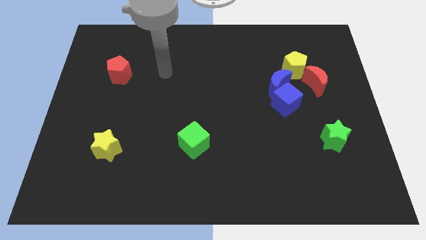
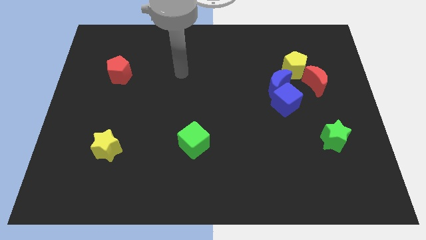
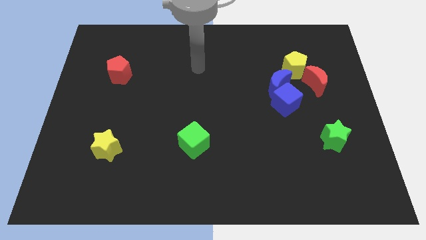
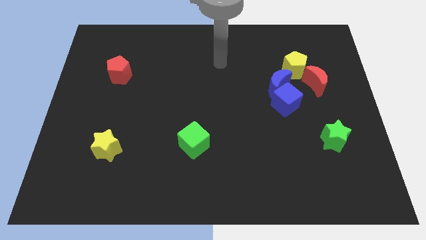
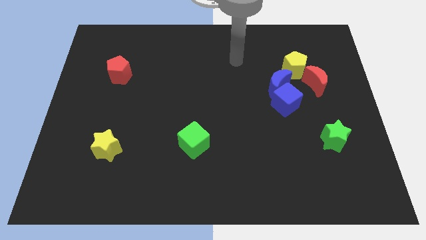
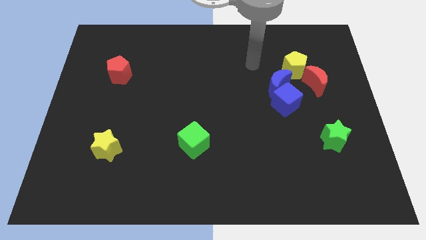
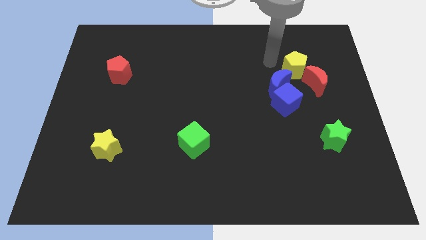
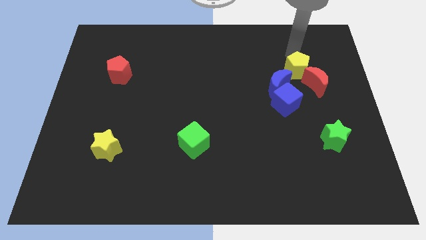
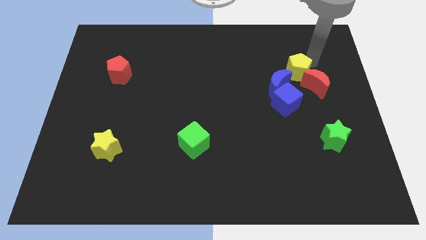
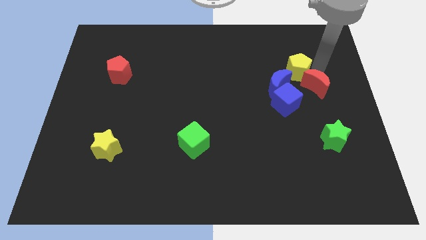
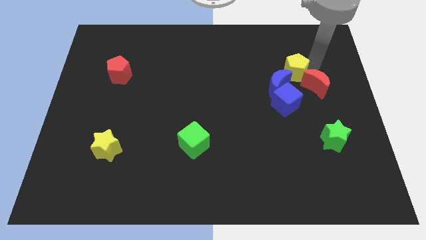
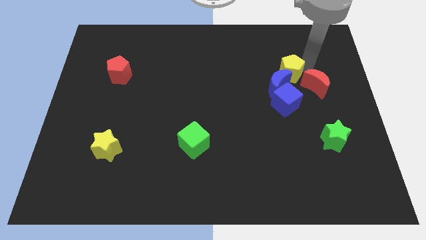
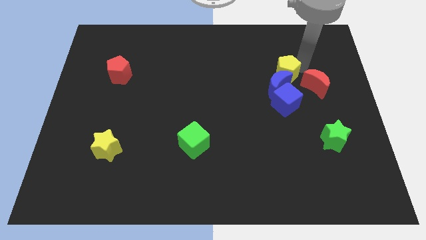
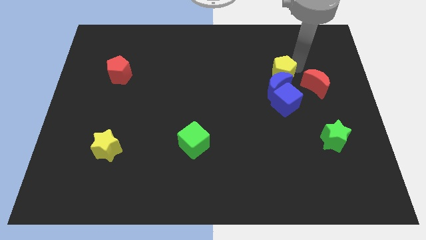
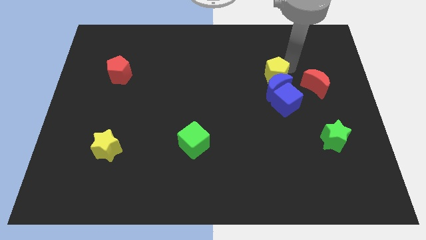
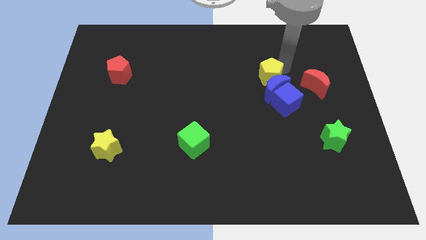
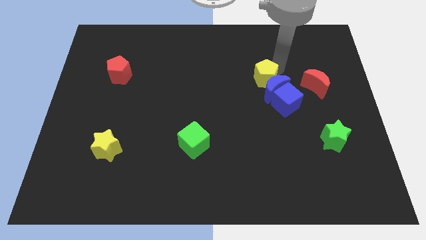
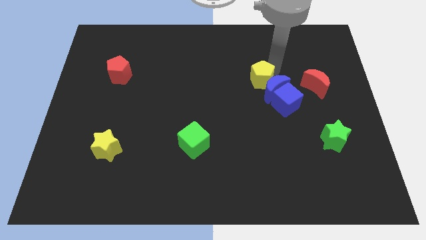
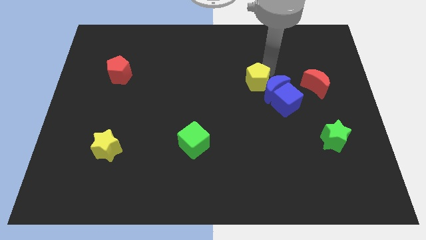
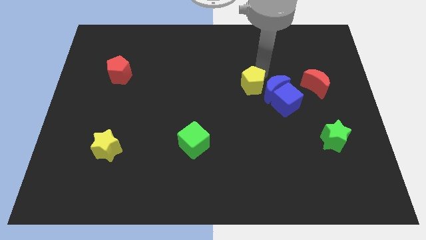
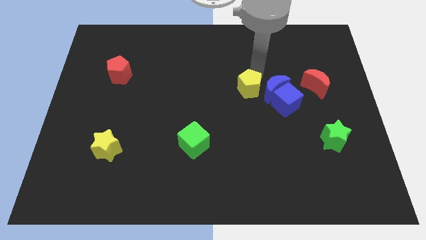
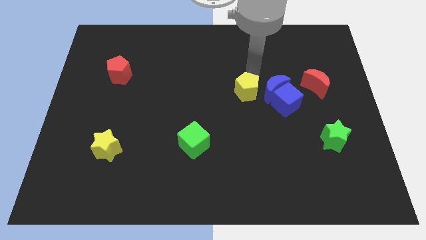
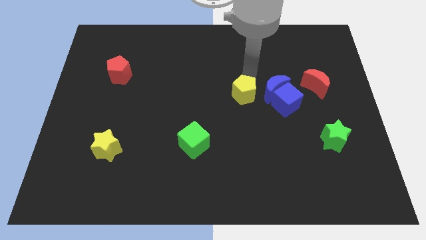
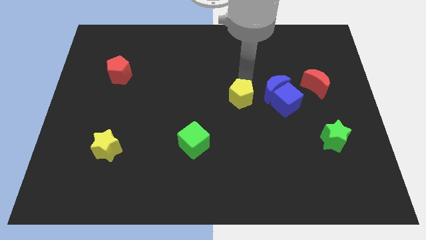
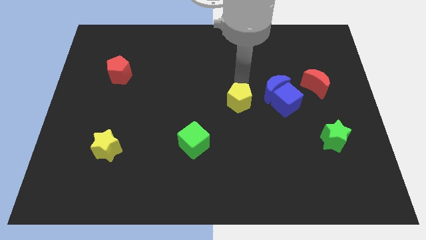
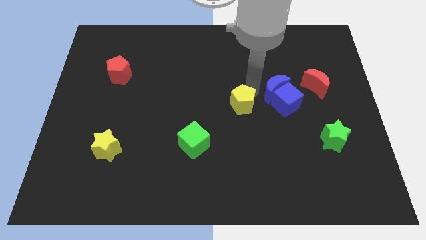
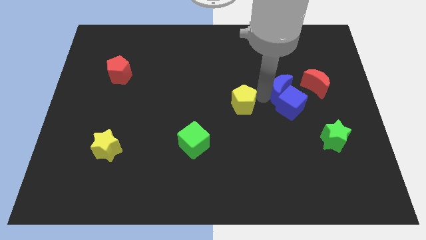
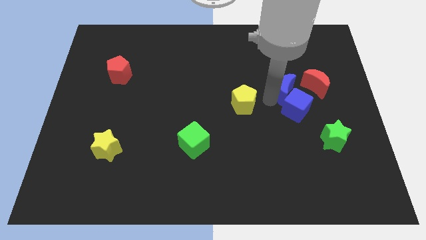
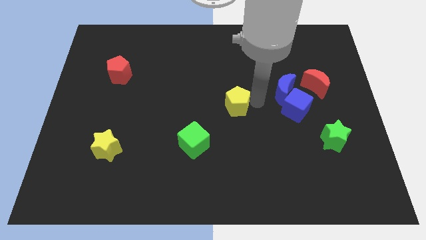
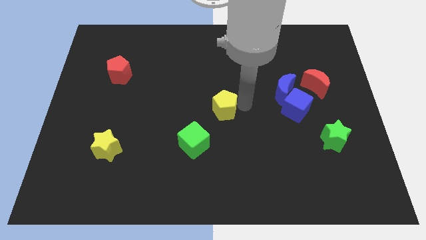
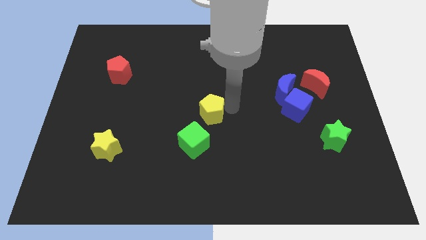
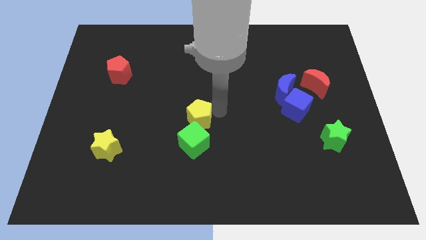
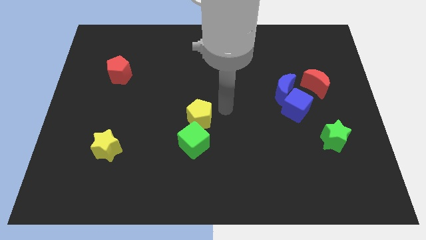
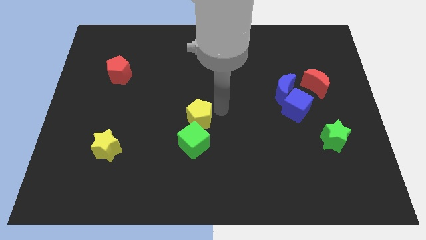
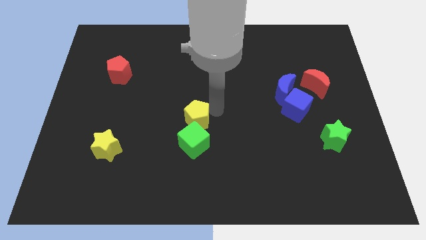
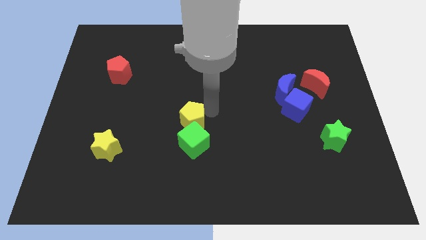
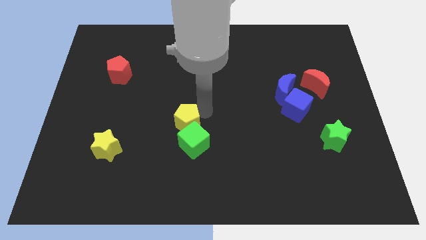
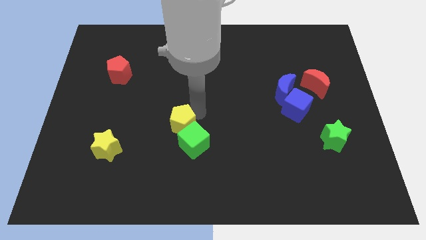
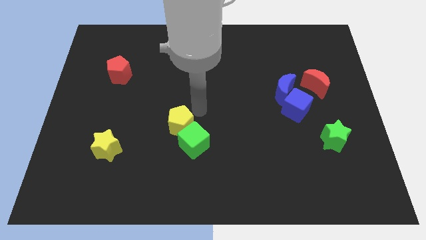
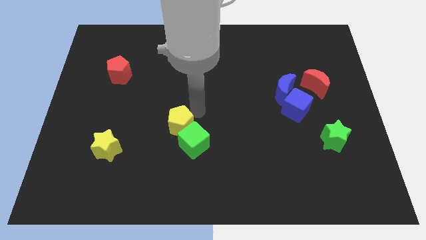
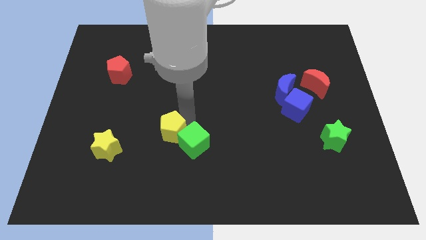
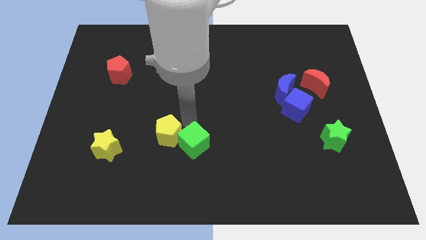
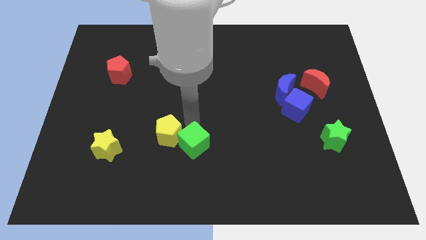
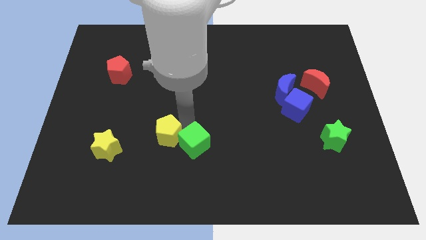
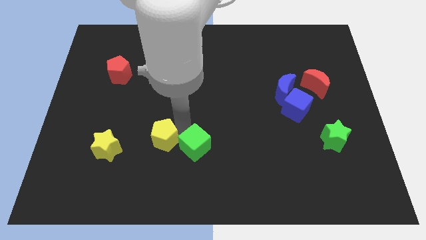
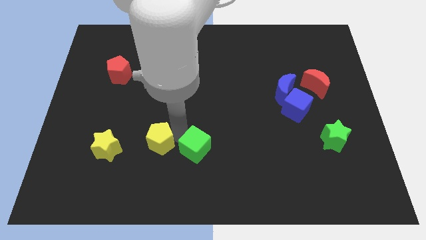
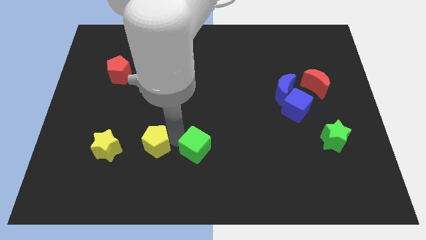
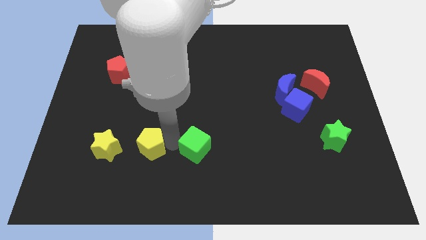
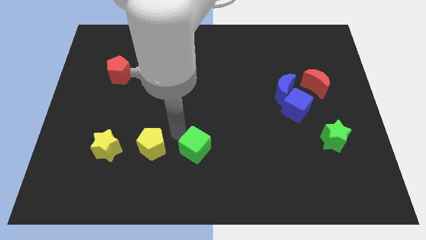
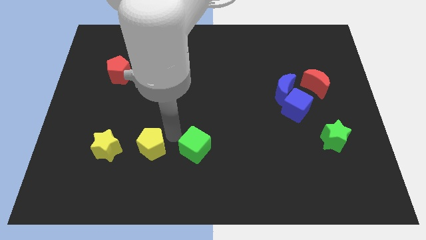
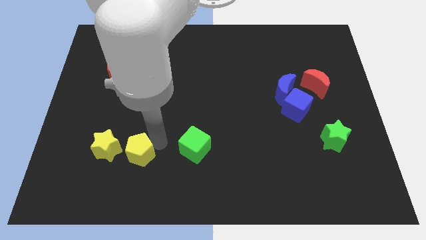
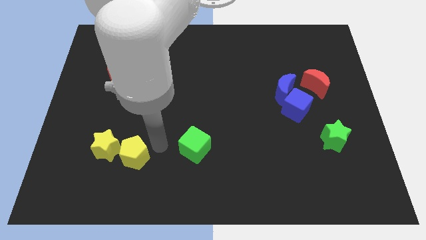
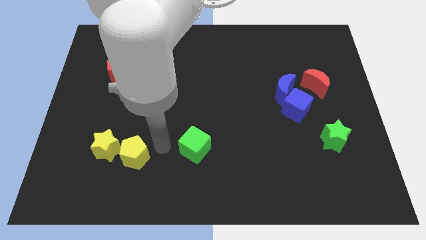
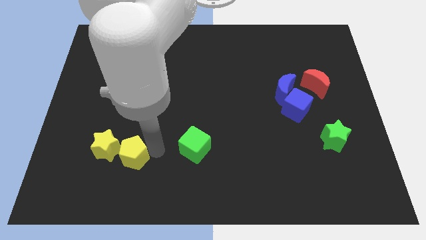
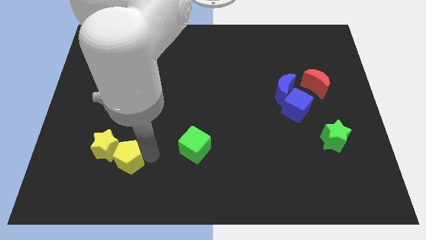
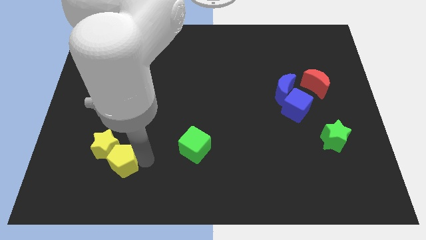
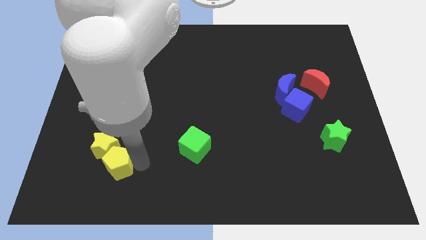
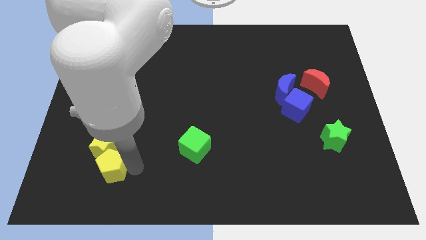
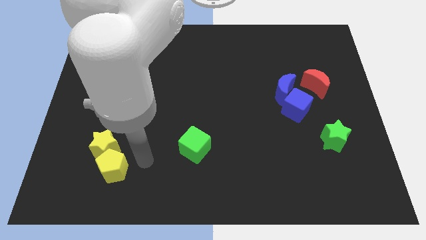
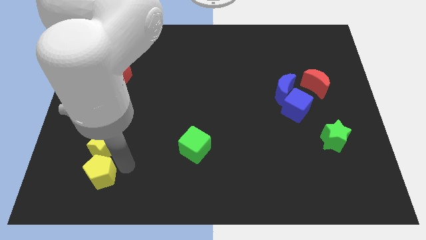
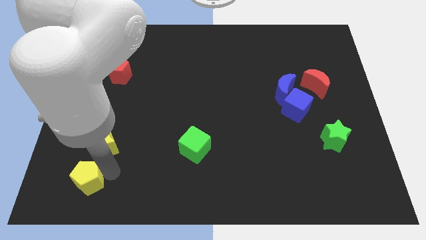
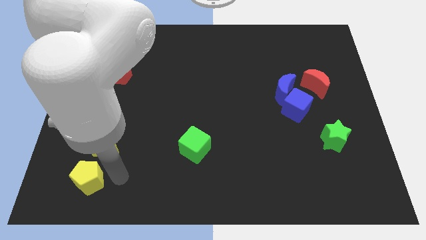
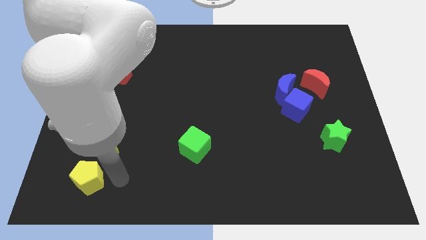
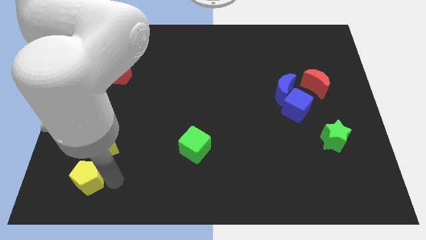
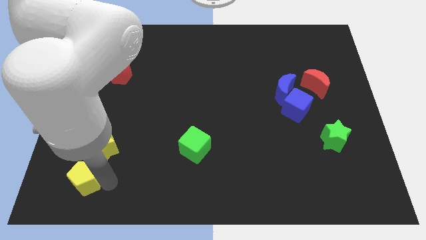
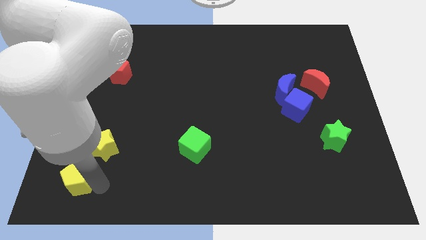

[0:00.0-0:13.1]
move the yellow pentagon to the lower left corner
